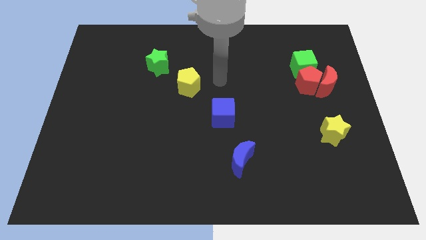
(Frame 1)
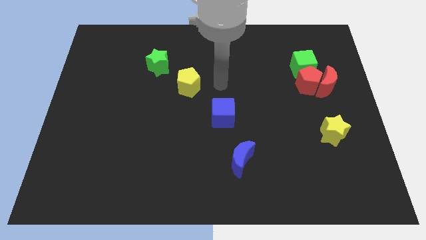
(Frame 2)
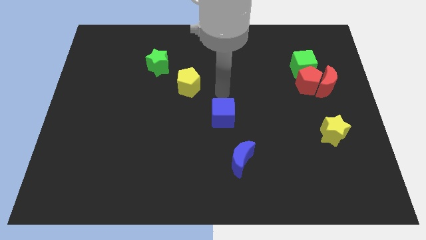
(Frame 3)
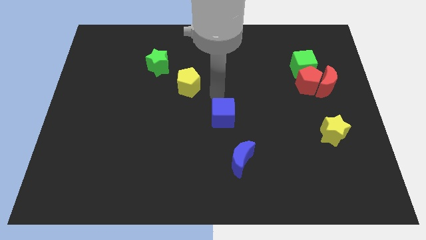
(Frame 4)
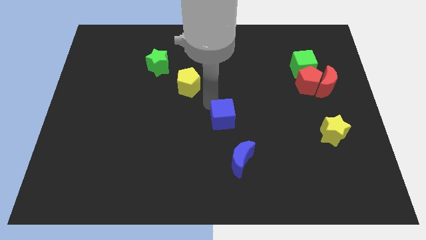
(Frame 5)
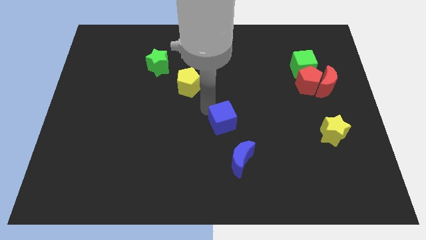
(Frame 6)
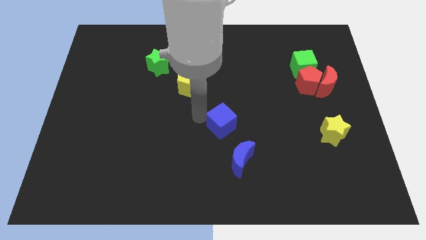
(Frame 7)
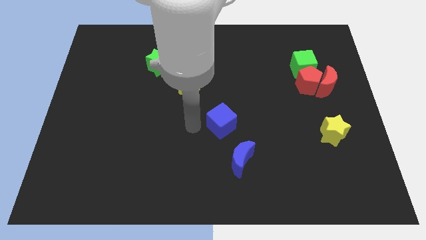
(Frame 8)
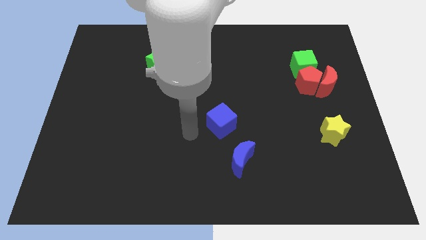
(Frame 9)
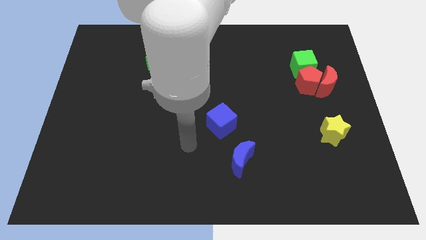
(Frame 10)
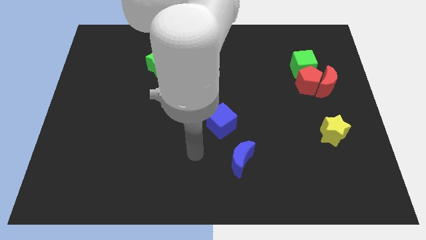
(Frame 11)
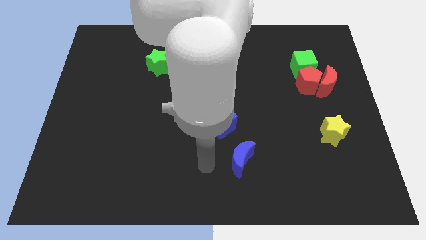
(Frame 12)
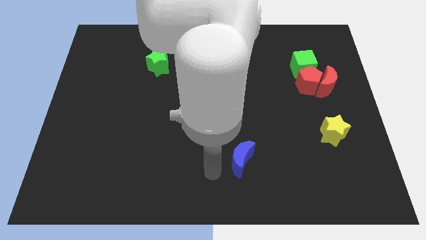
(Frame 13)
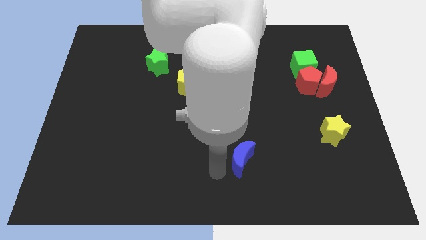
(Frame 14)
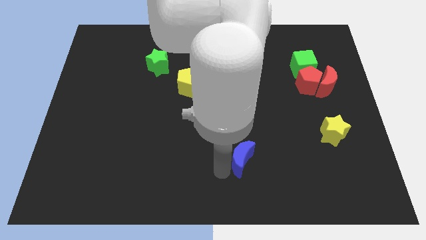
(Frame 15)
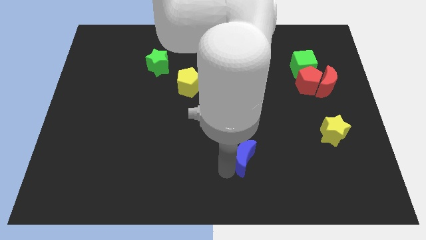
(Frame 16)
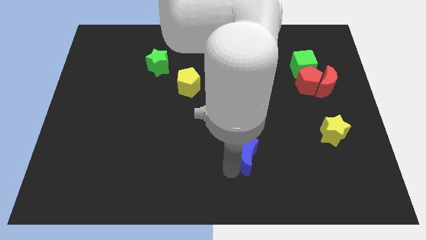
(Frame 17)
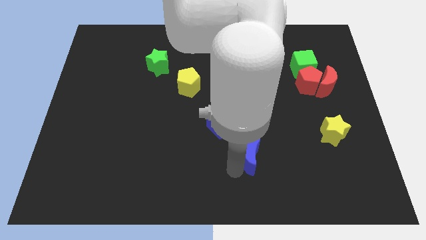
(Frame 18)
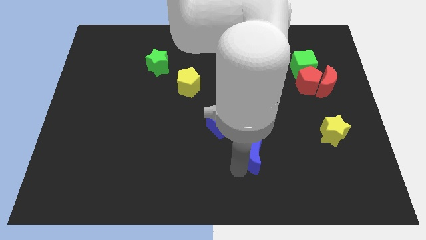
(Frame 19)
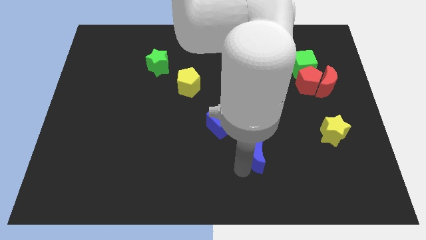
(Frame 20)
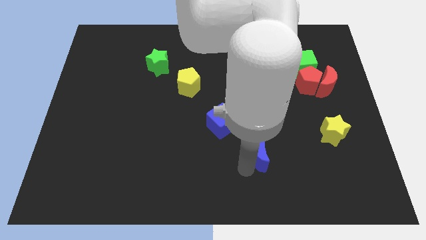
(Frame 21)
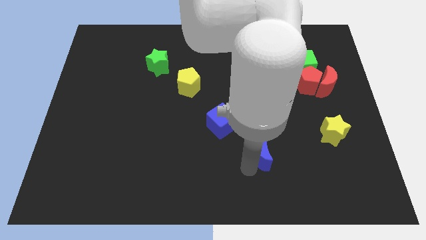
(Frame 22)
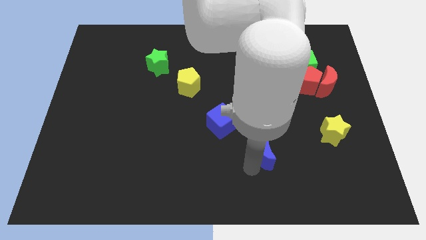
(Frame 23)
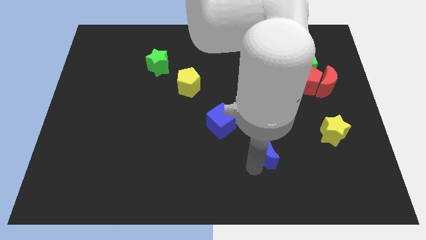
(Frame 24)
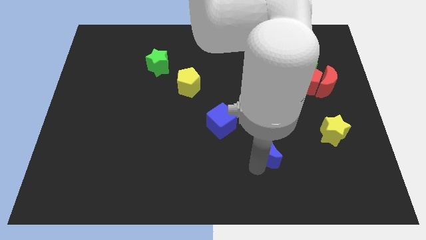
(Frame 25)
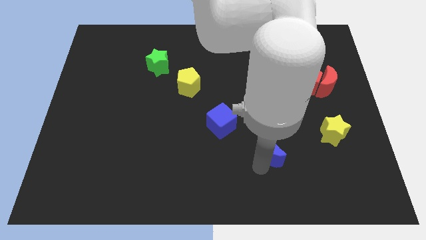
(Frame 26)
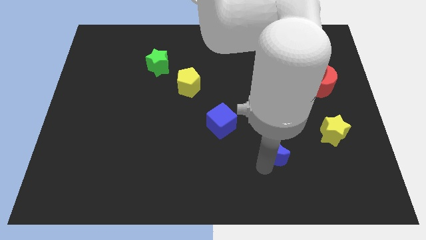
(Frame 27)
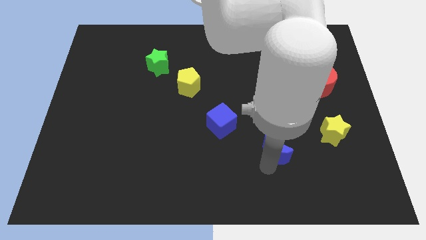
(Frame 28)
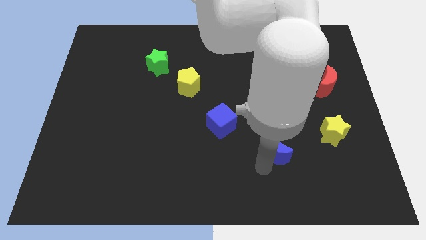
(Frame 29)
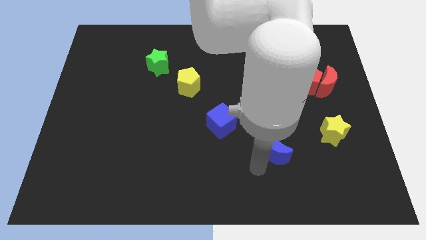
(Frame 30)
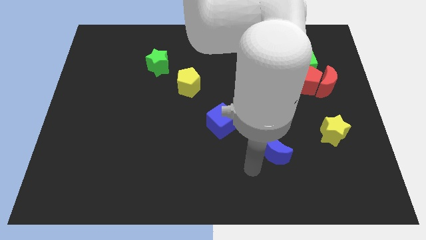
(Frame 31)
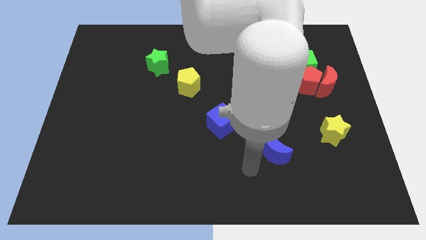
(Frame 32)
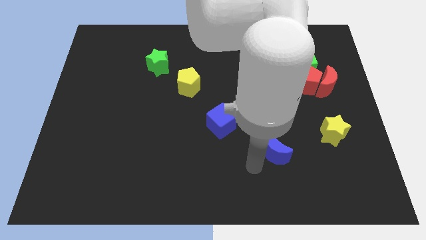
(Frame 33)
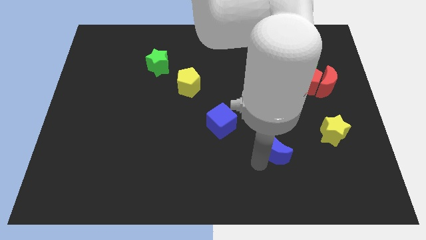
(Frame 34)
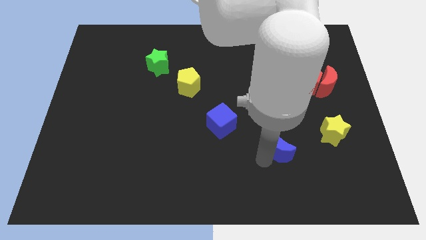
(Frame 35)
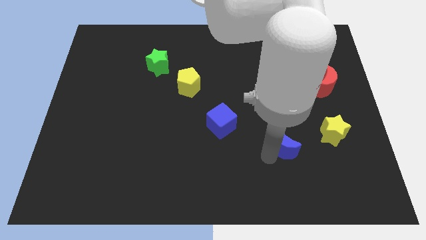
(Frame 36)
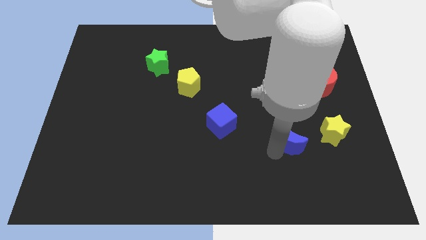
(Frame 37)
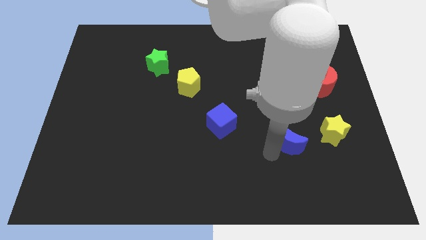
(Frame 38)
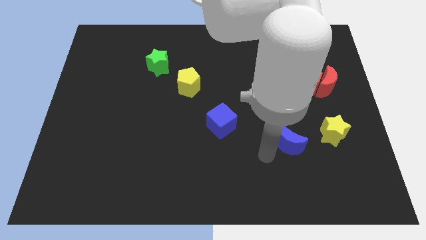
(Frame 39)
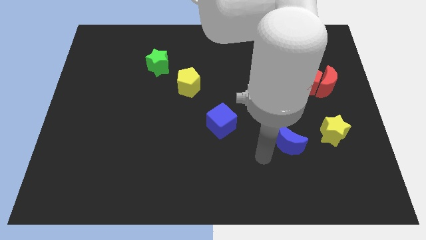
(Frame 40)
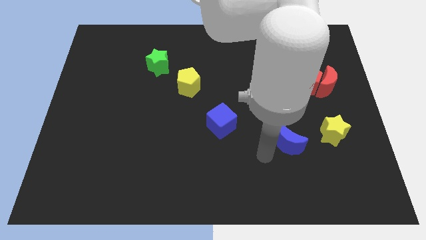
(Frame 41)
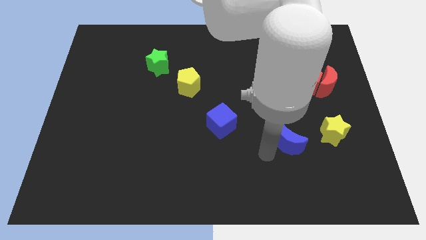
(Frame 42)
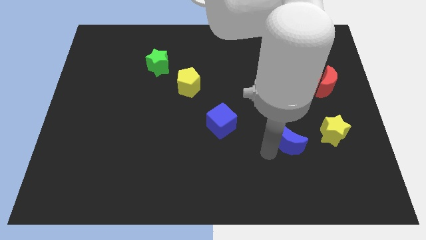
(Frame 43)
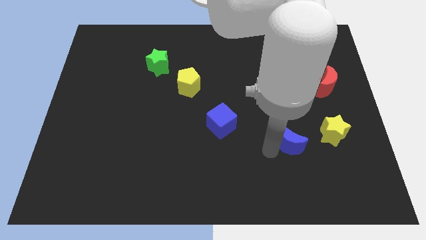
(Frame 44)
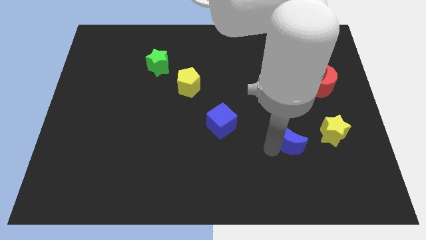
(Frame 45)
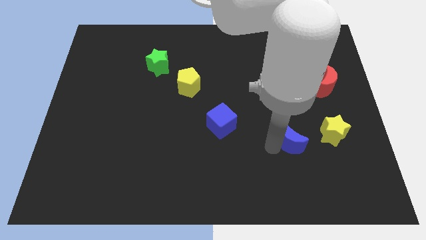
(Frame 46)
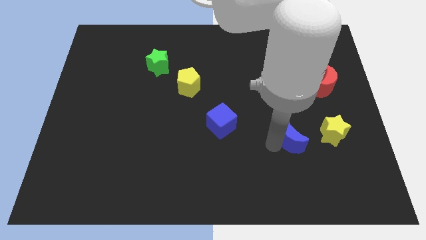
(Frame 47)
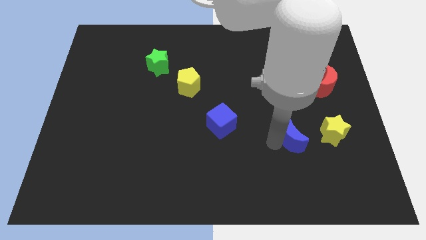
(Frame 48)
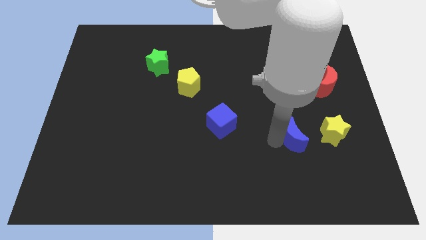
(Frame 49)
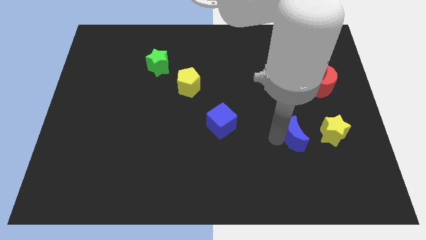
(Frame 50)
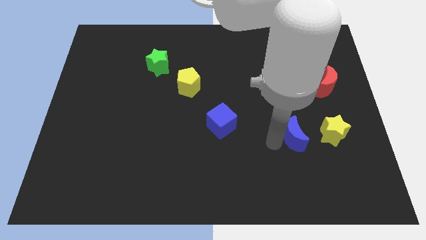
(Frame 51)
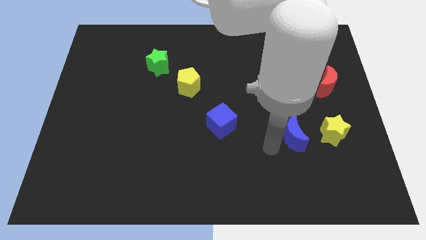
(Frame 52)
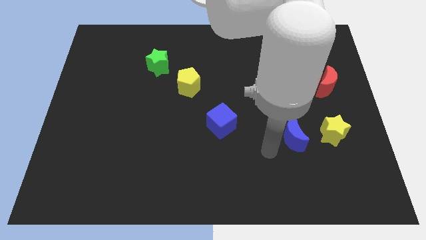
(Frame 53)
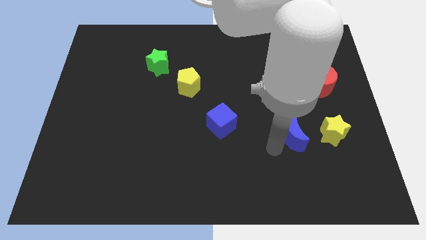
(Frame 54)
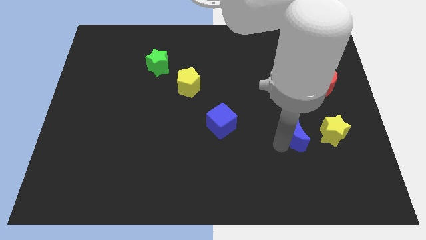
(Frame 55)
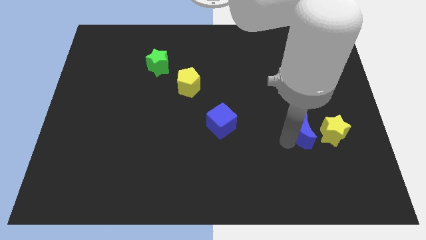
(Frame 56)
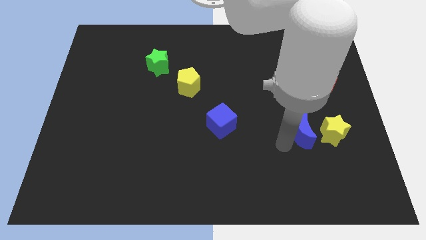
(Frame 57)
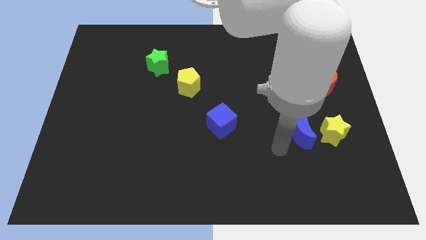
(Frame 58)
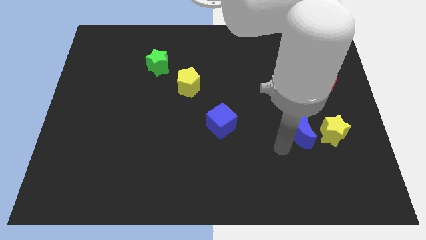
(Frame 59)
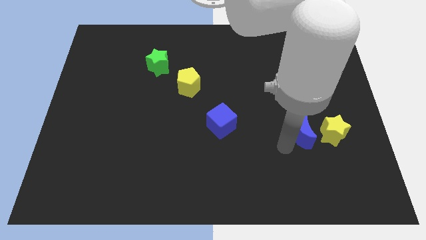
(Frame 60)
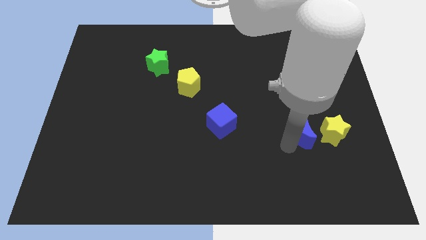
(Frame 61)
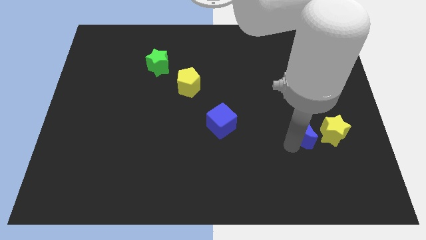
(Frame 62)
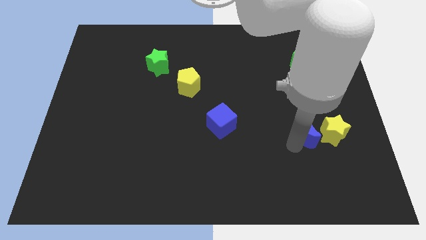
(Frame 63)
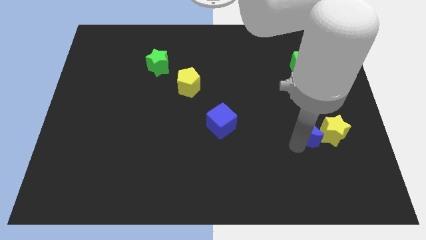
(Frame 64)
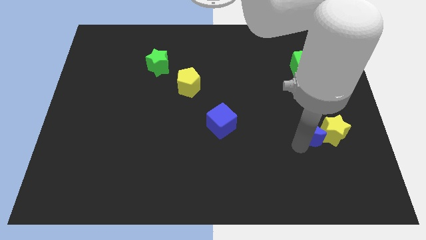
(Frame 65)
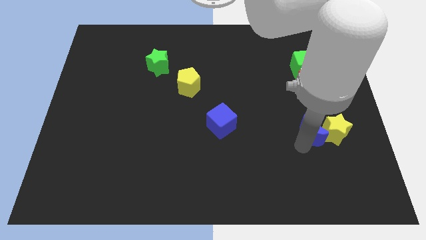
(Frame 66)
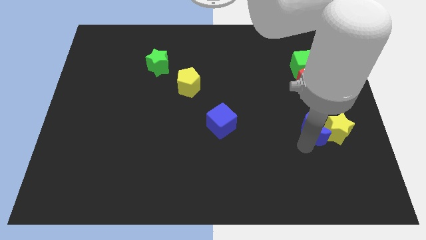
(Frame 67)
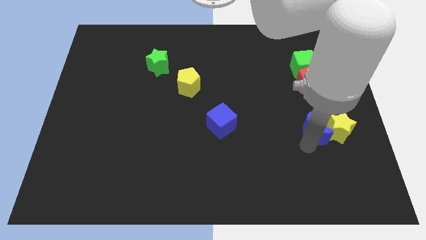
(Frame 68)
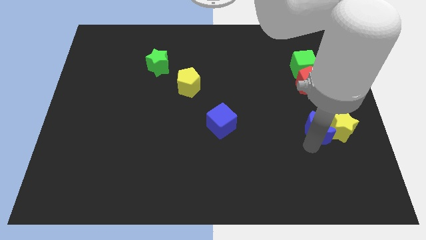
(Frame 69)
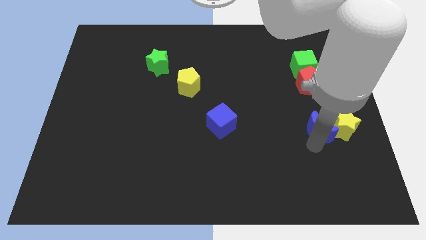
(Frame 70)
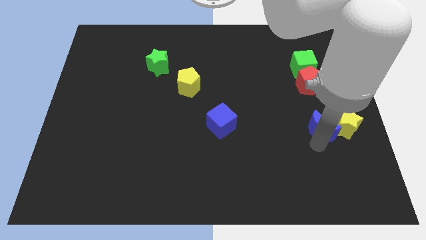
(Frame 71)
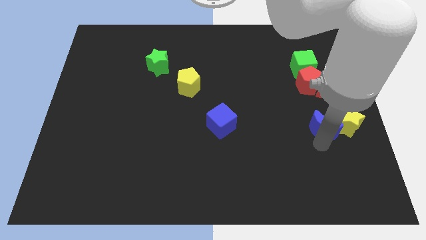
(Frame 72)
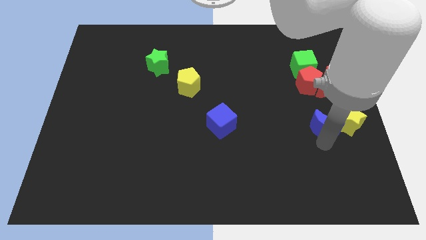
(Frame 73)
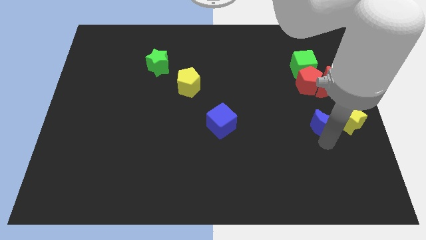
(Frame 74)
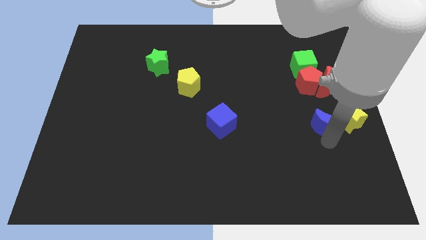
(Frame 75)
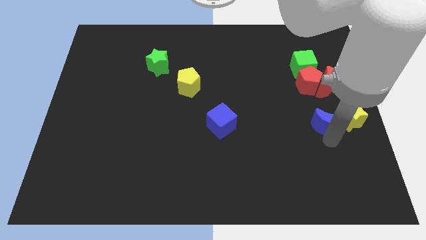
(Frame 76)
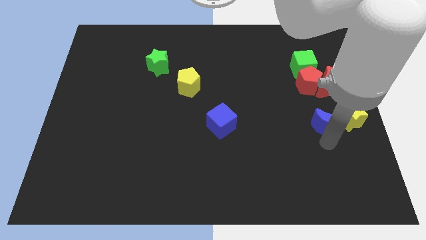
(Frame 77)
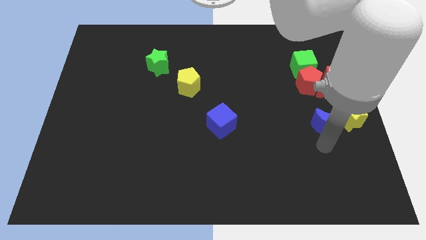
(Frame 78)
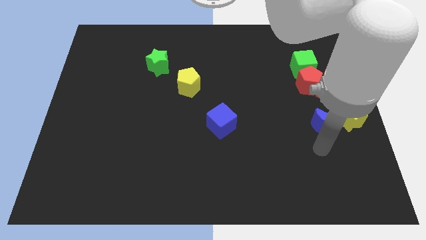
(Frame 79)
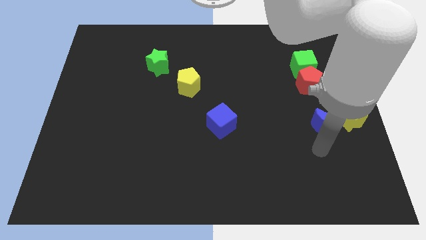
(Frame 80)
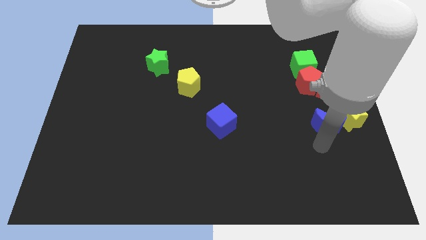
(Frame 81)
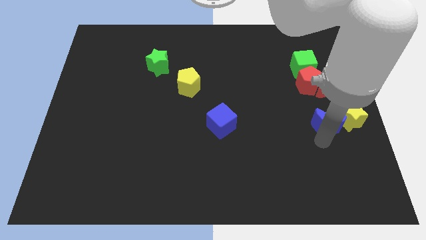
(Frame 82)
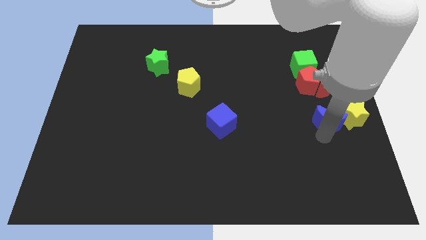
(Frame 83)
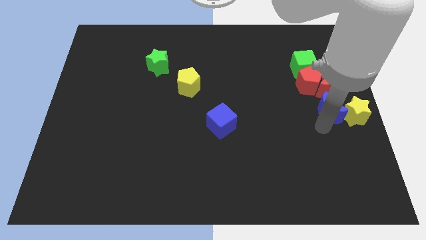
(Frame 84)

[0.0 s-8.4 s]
put the blue moon to the right side of the board
